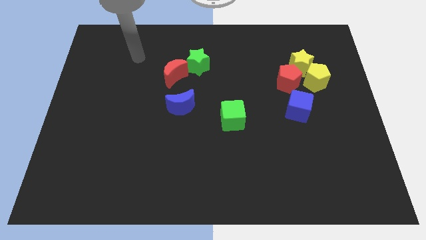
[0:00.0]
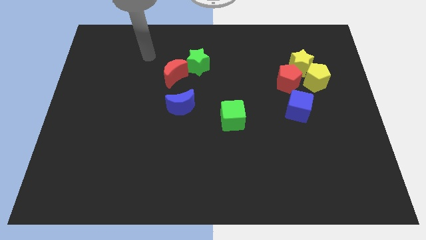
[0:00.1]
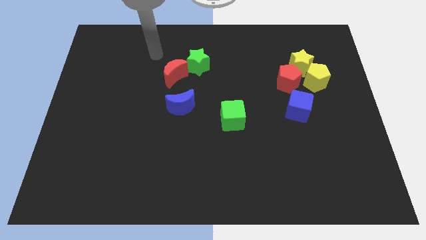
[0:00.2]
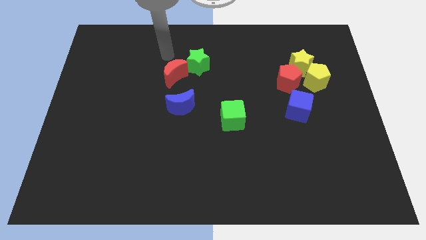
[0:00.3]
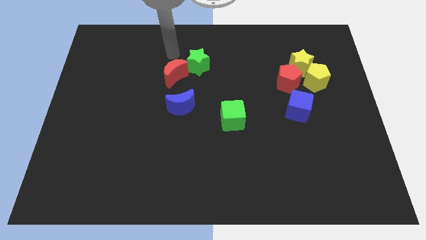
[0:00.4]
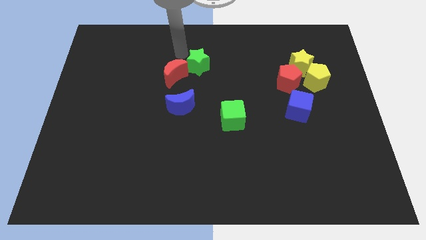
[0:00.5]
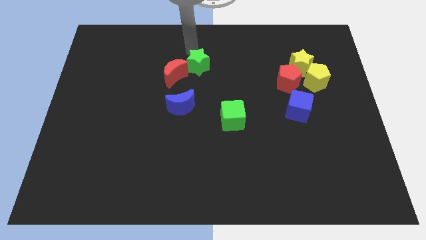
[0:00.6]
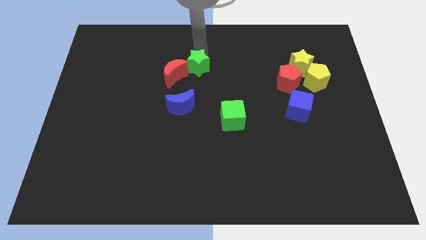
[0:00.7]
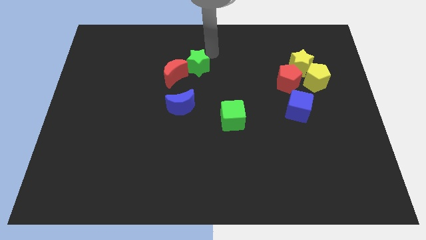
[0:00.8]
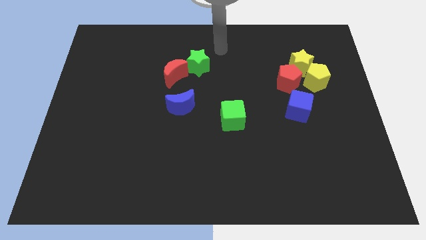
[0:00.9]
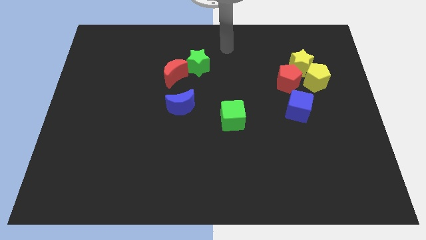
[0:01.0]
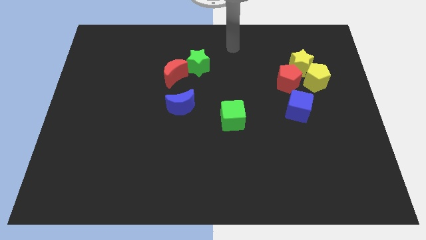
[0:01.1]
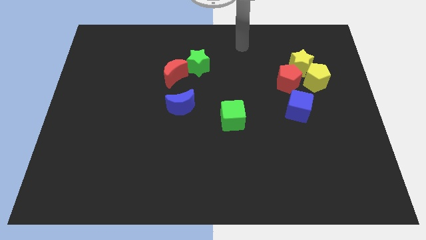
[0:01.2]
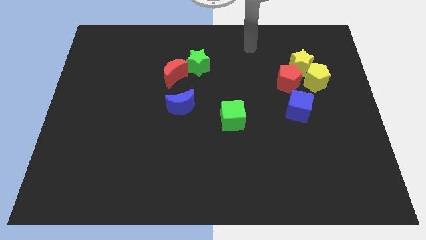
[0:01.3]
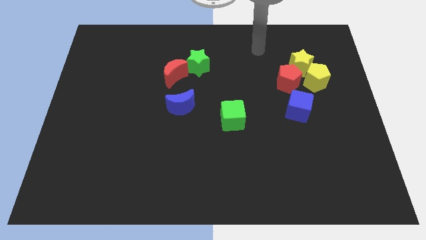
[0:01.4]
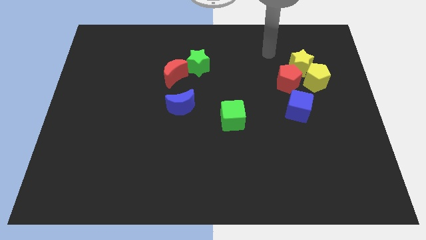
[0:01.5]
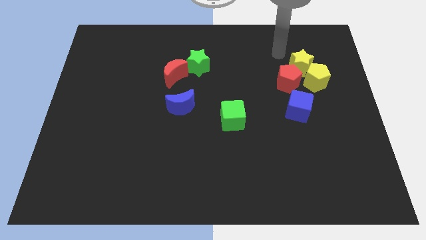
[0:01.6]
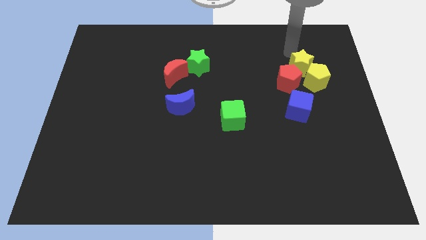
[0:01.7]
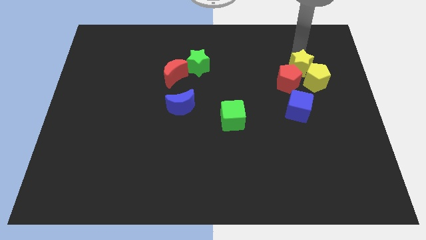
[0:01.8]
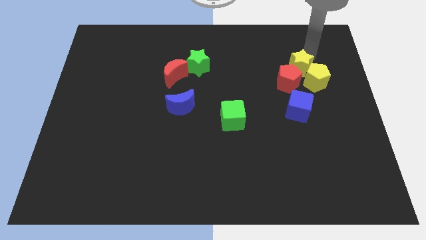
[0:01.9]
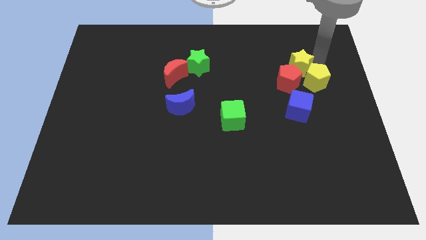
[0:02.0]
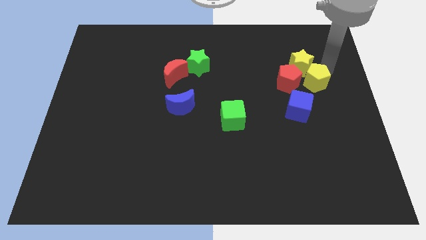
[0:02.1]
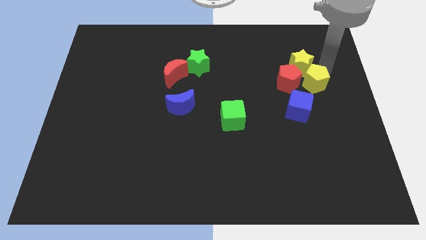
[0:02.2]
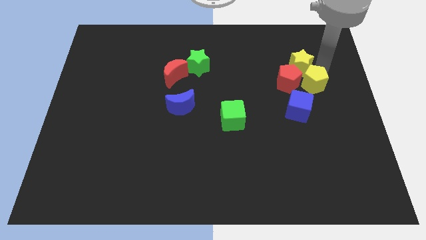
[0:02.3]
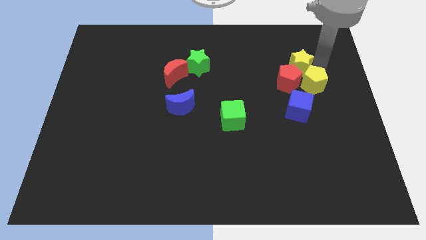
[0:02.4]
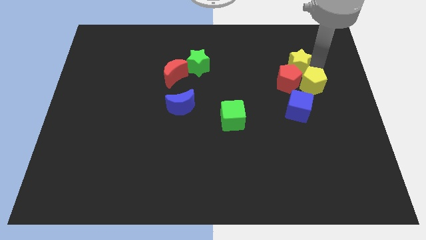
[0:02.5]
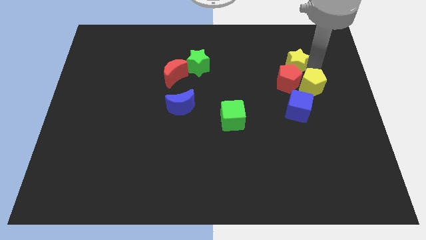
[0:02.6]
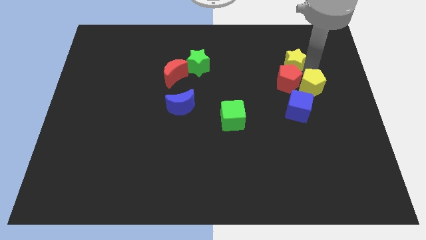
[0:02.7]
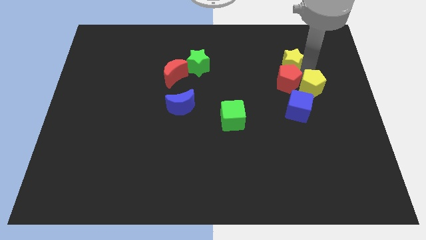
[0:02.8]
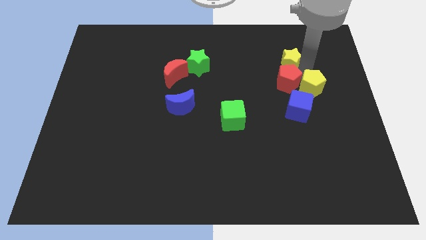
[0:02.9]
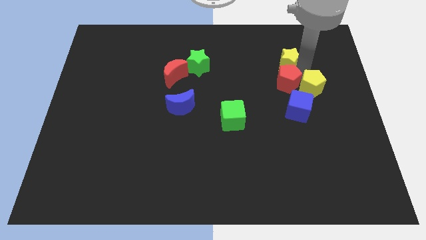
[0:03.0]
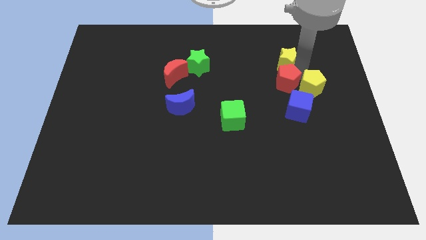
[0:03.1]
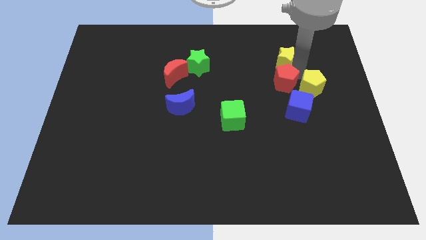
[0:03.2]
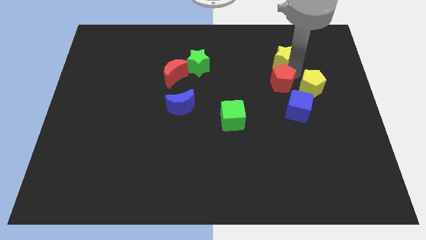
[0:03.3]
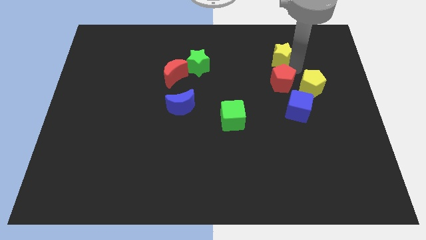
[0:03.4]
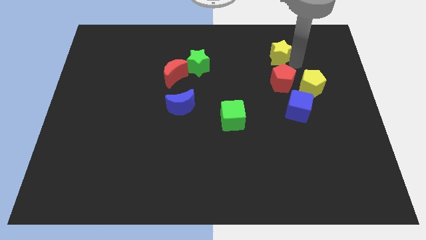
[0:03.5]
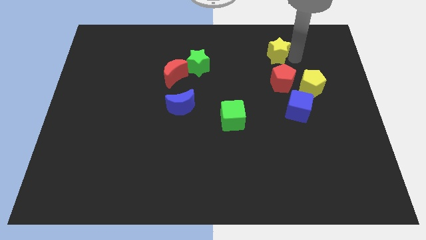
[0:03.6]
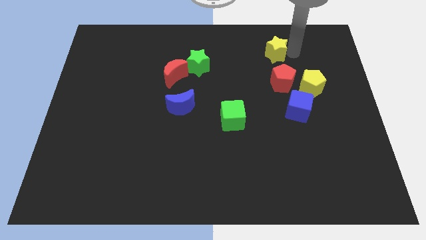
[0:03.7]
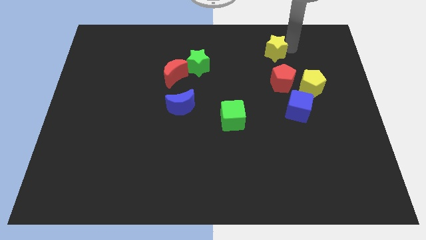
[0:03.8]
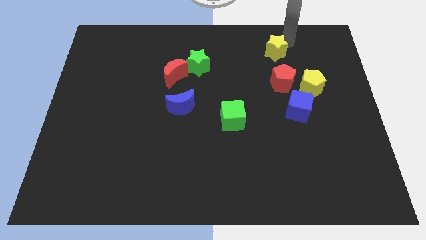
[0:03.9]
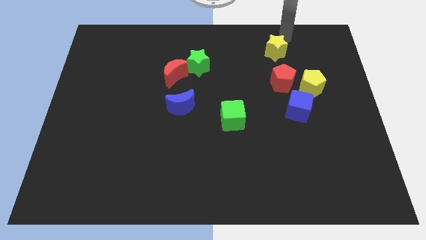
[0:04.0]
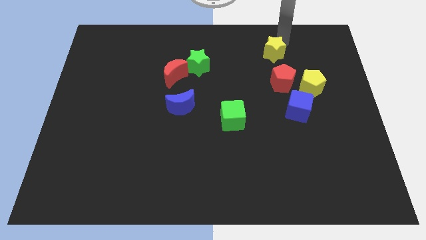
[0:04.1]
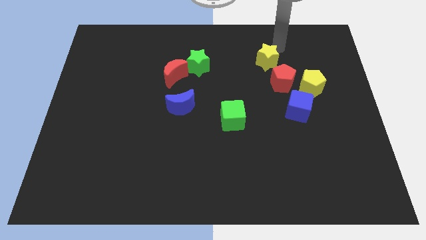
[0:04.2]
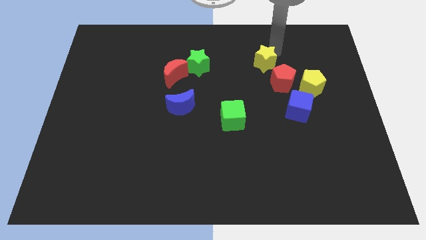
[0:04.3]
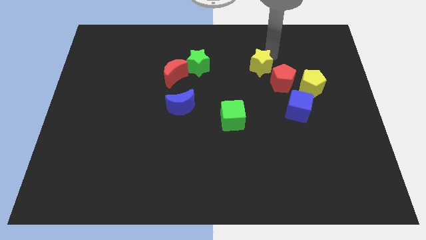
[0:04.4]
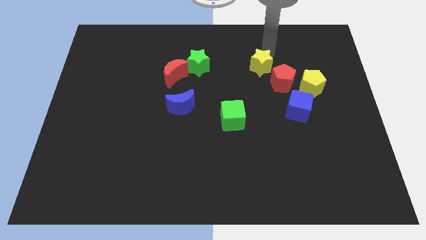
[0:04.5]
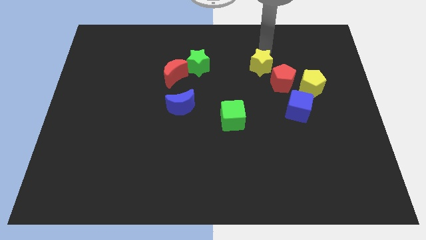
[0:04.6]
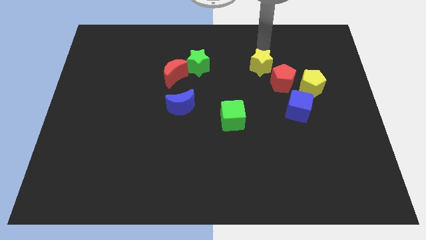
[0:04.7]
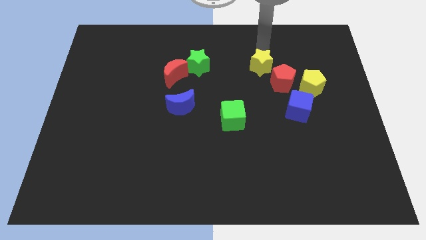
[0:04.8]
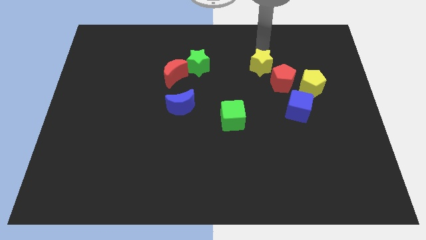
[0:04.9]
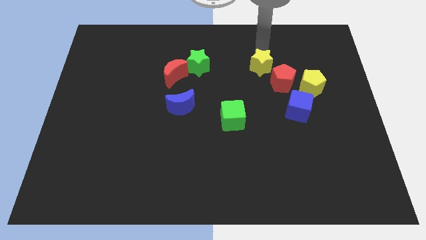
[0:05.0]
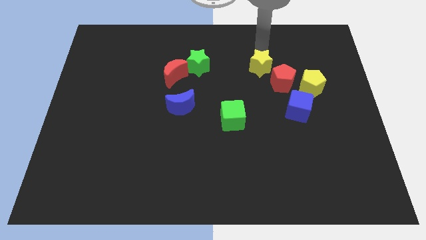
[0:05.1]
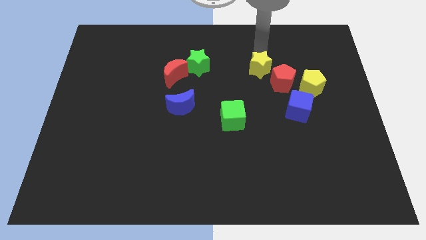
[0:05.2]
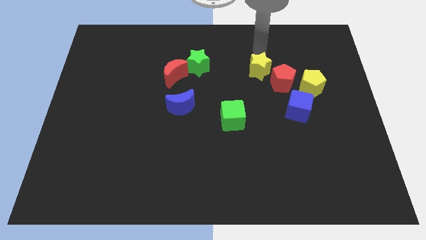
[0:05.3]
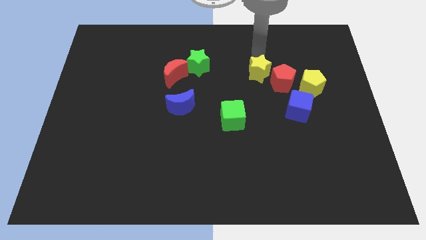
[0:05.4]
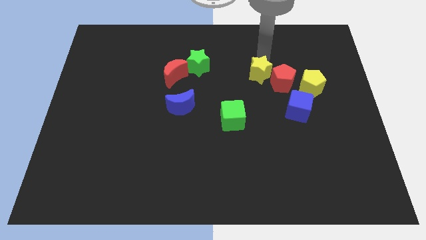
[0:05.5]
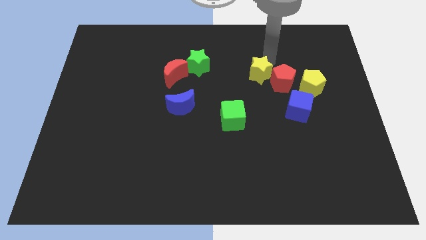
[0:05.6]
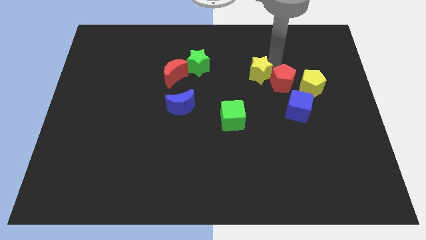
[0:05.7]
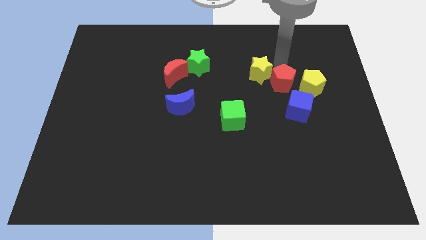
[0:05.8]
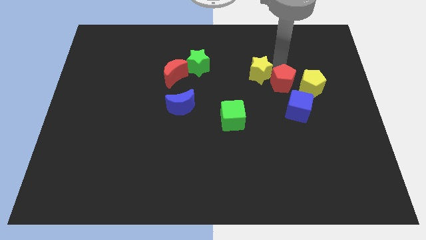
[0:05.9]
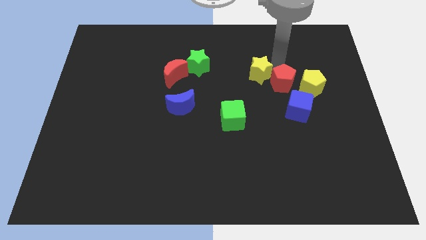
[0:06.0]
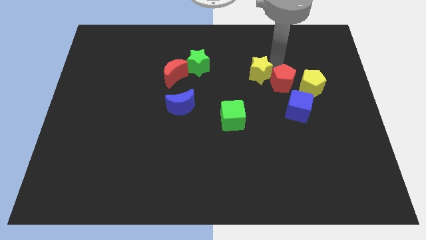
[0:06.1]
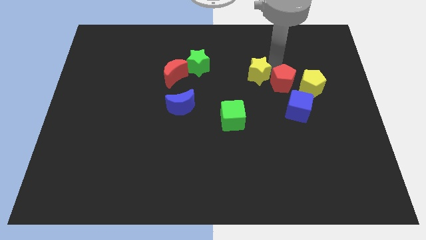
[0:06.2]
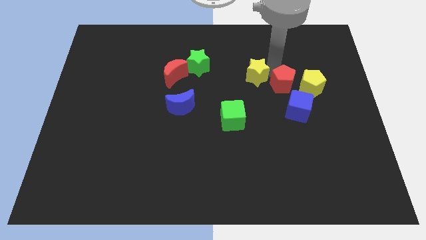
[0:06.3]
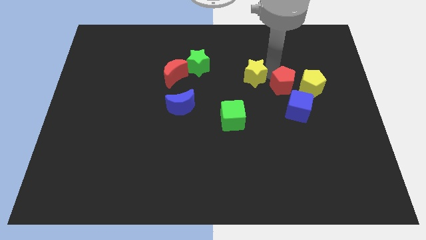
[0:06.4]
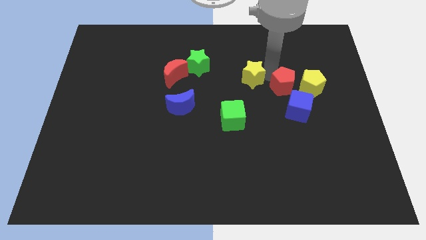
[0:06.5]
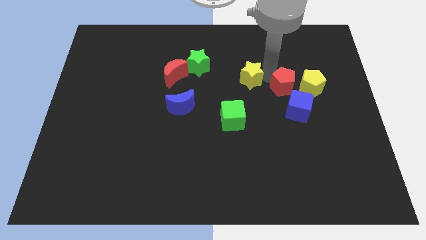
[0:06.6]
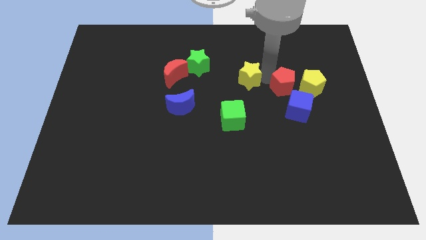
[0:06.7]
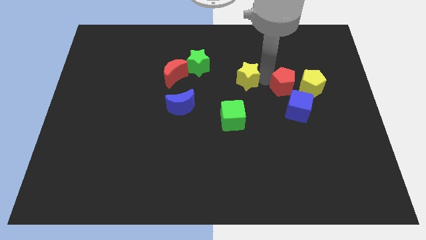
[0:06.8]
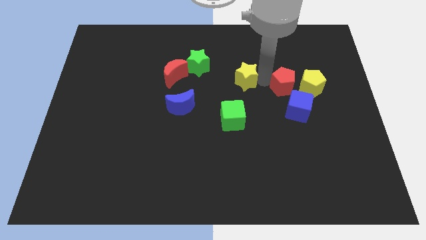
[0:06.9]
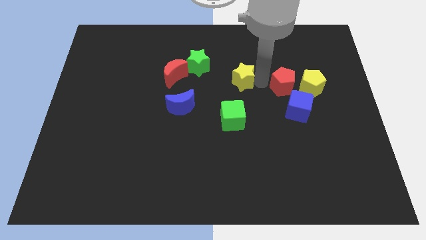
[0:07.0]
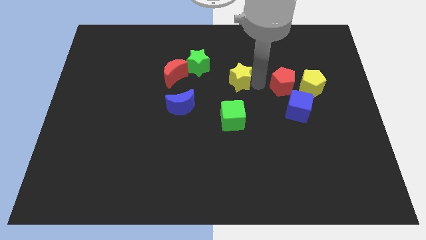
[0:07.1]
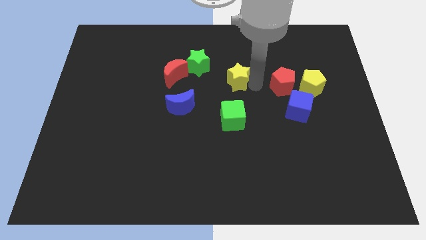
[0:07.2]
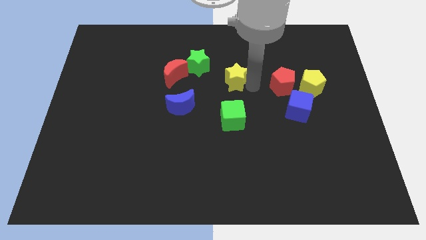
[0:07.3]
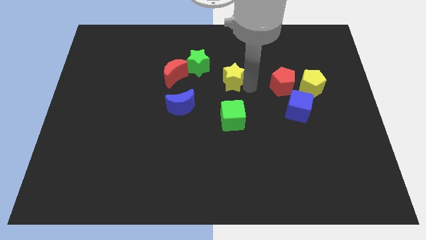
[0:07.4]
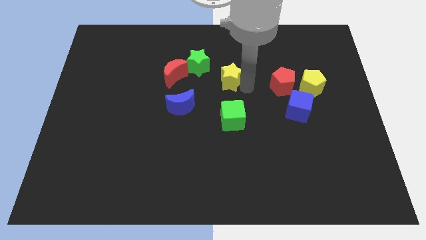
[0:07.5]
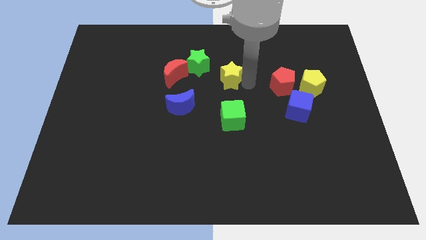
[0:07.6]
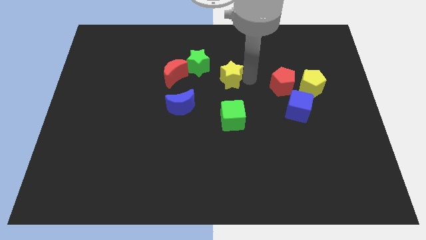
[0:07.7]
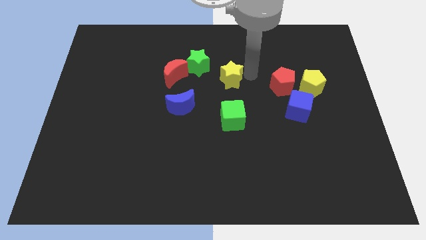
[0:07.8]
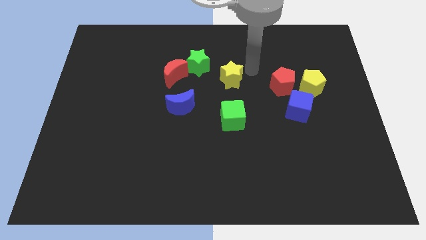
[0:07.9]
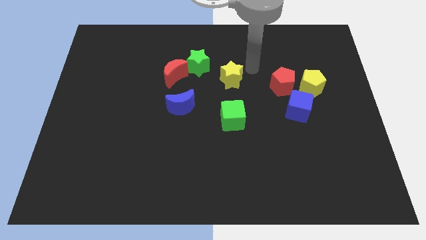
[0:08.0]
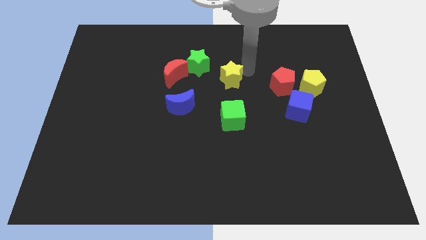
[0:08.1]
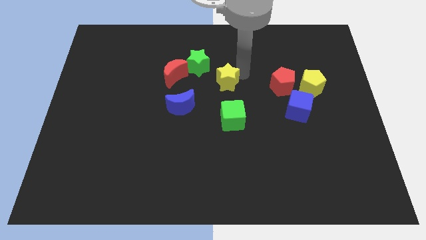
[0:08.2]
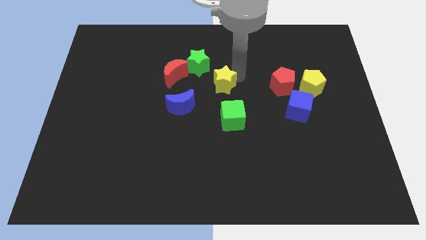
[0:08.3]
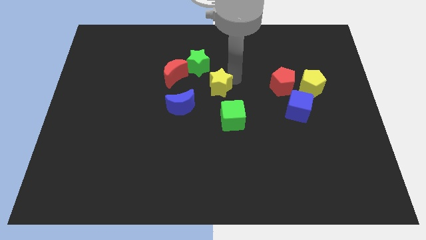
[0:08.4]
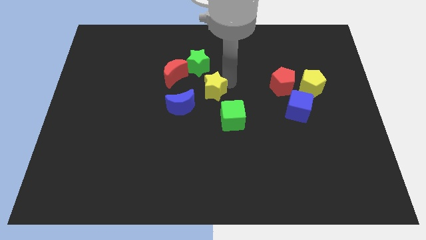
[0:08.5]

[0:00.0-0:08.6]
move the yellow star below the green star
